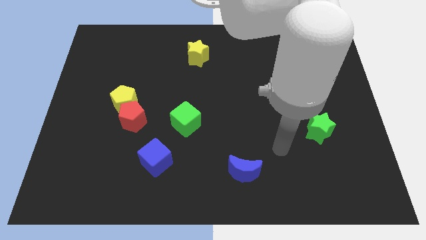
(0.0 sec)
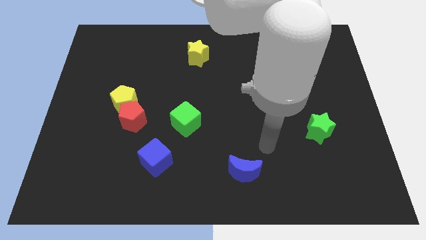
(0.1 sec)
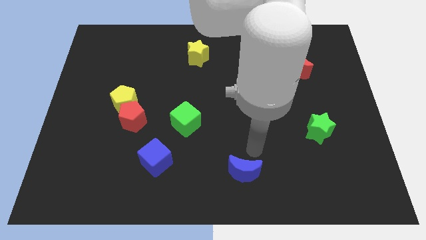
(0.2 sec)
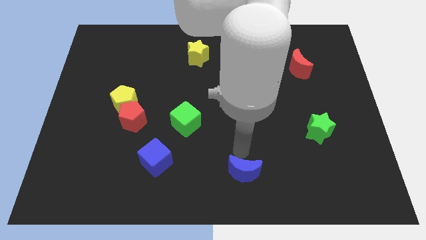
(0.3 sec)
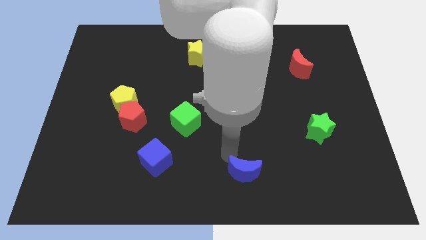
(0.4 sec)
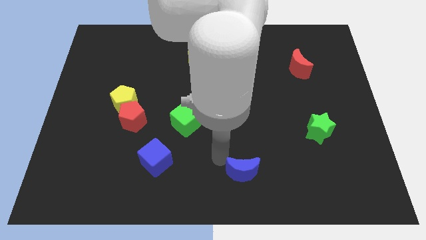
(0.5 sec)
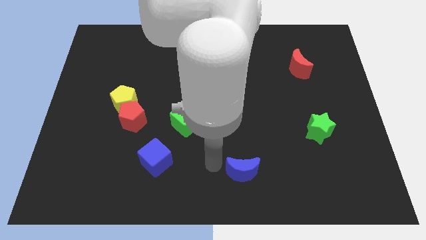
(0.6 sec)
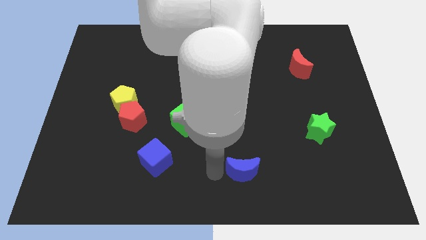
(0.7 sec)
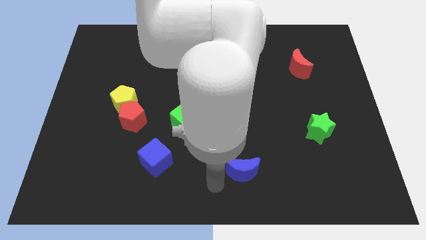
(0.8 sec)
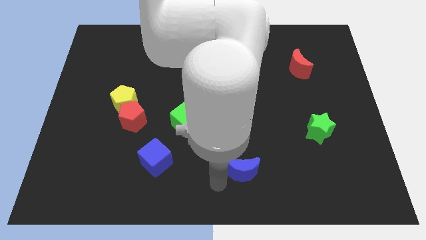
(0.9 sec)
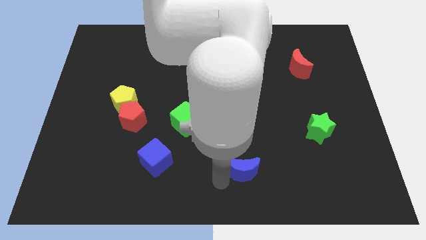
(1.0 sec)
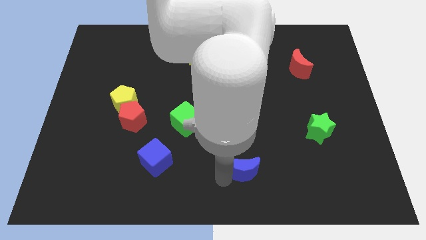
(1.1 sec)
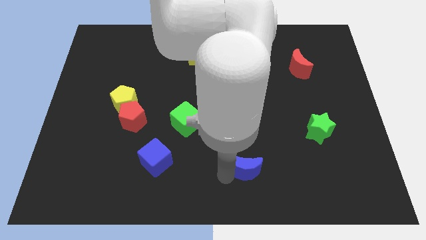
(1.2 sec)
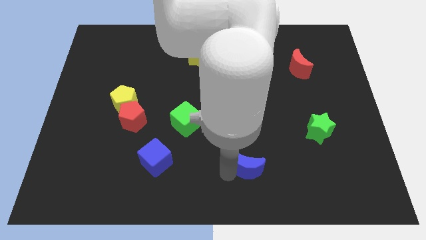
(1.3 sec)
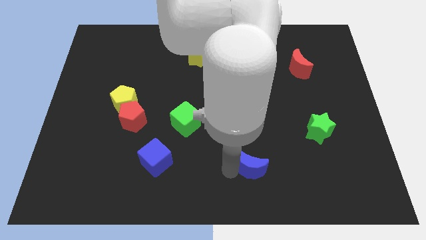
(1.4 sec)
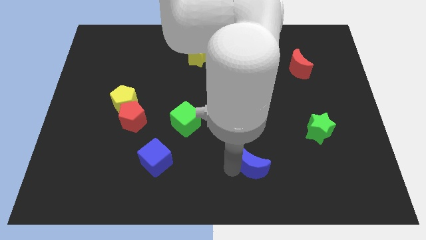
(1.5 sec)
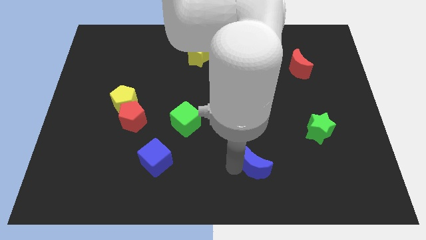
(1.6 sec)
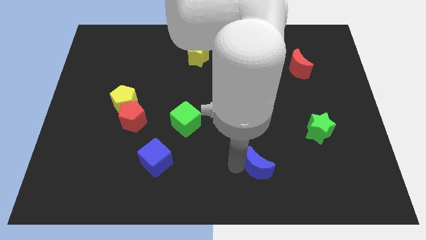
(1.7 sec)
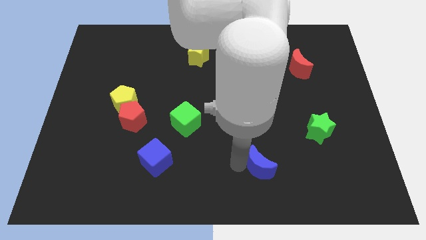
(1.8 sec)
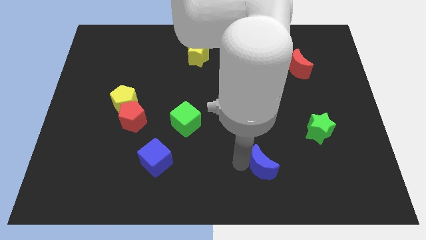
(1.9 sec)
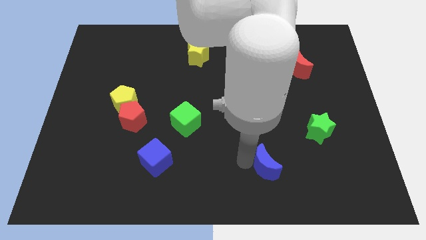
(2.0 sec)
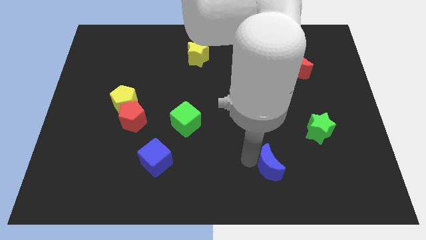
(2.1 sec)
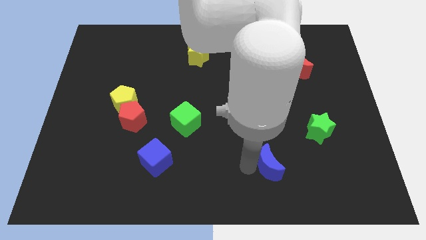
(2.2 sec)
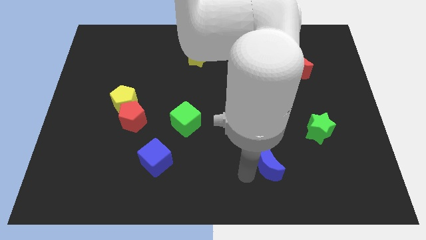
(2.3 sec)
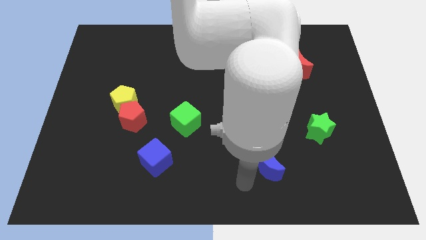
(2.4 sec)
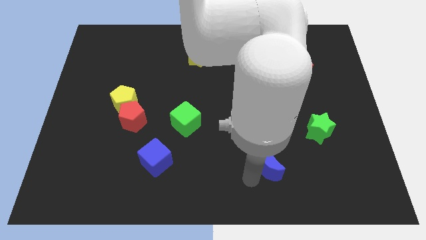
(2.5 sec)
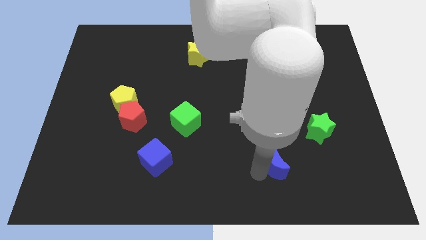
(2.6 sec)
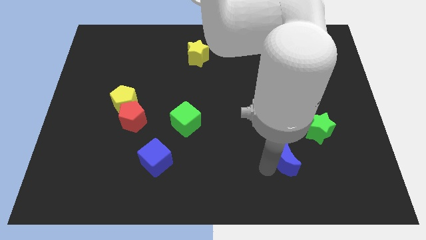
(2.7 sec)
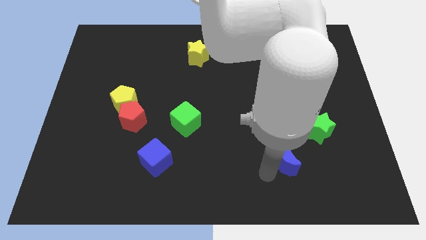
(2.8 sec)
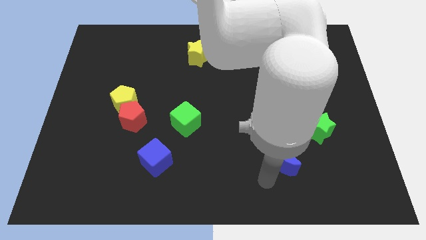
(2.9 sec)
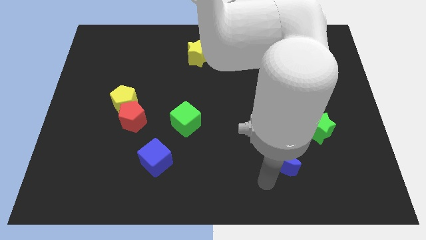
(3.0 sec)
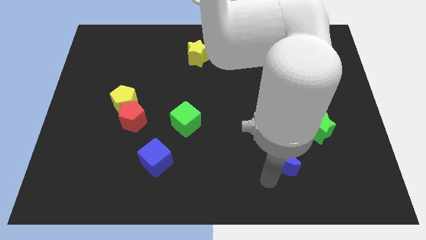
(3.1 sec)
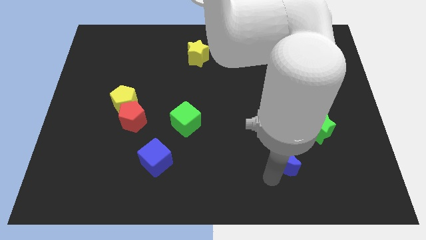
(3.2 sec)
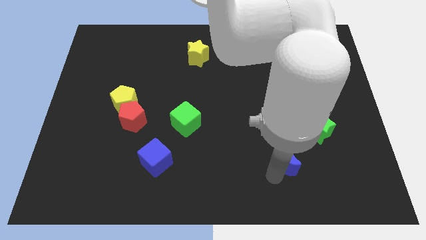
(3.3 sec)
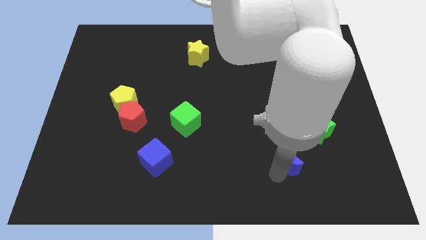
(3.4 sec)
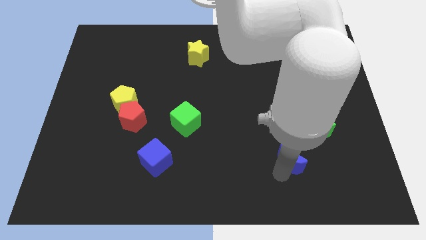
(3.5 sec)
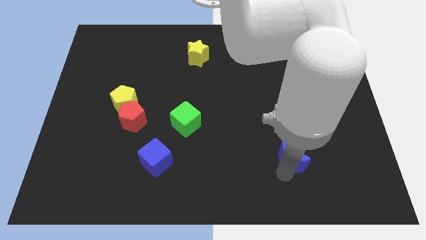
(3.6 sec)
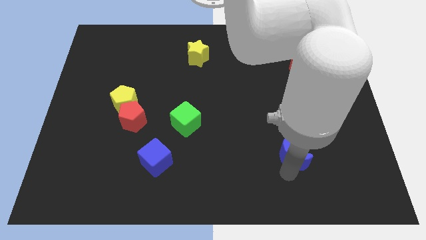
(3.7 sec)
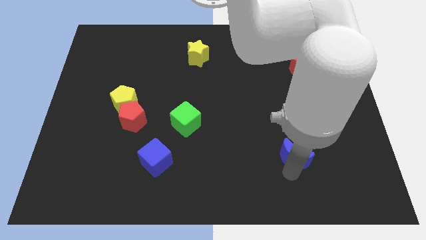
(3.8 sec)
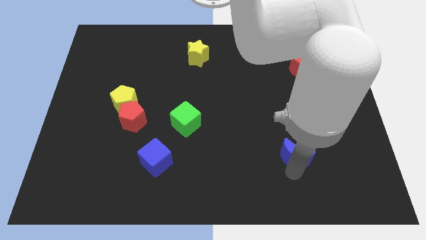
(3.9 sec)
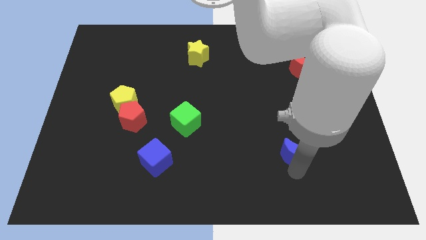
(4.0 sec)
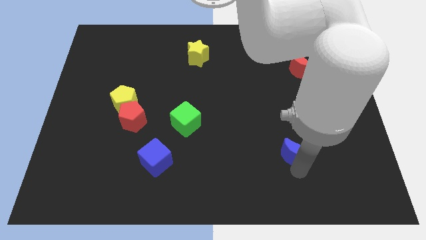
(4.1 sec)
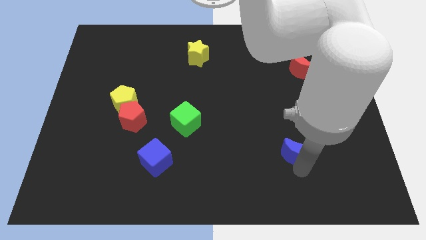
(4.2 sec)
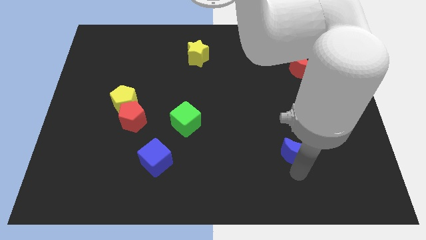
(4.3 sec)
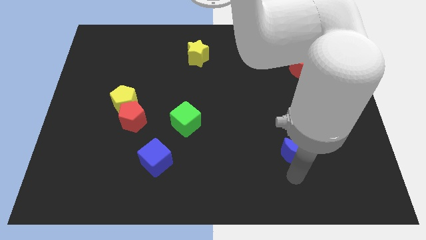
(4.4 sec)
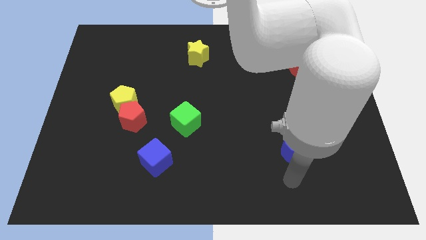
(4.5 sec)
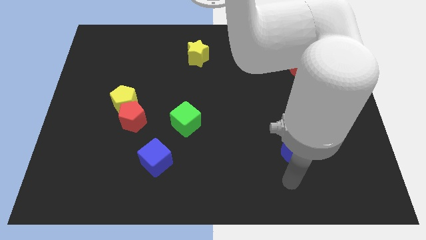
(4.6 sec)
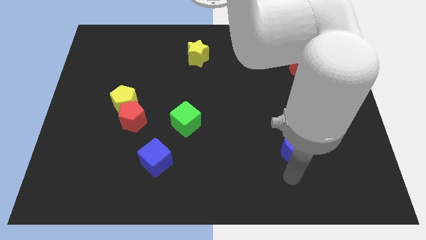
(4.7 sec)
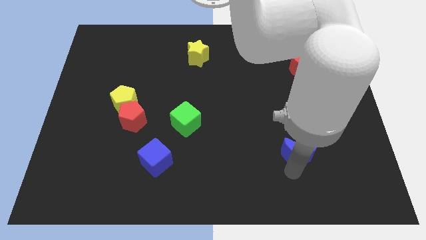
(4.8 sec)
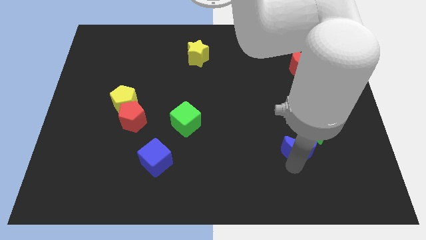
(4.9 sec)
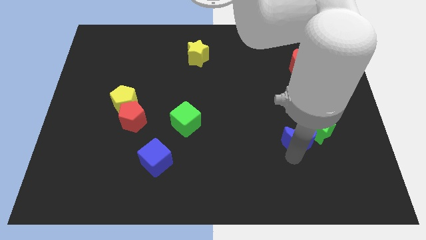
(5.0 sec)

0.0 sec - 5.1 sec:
put the blue moon next to the green star

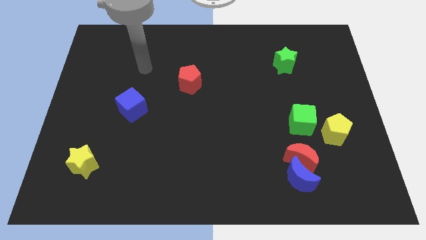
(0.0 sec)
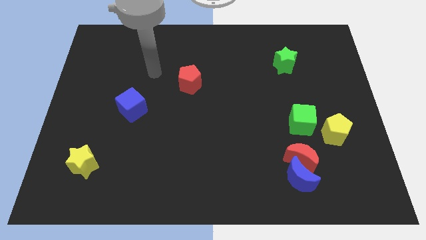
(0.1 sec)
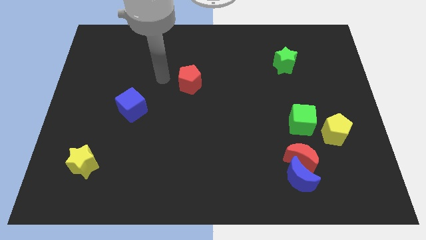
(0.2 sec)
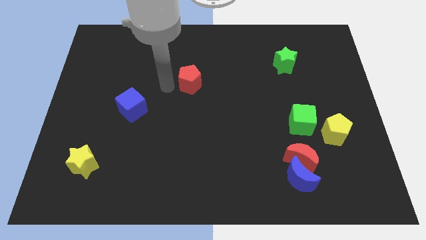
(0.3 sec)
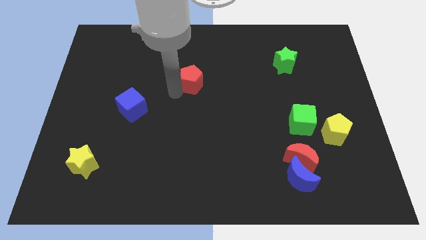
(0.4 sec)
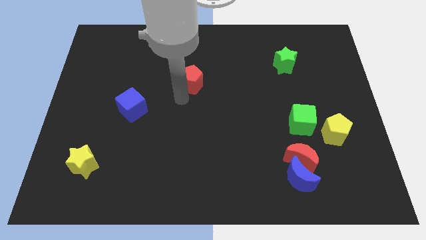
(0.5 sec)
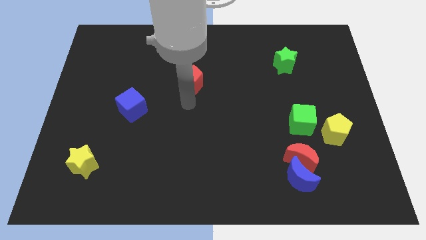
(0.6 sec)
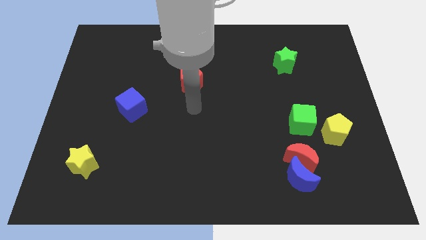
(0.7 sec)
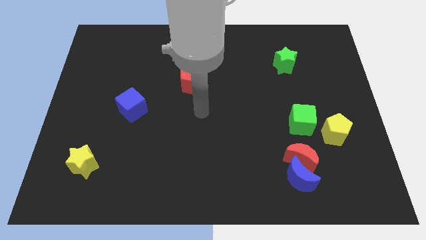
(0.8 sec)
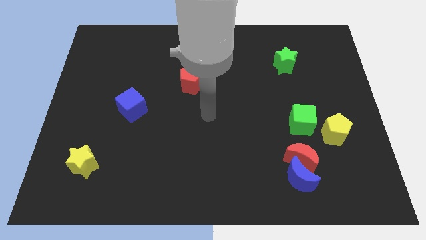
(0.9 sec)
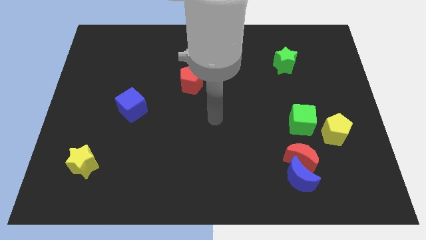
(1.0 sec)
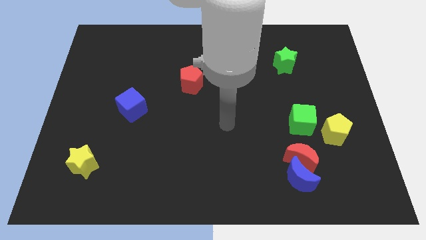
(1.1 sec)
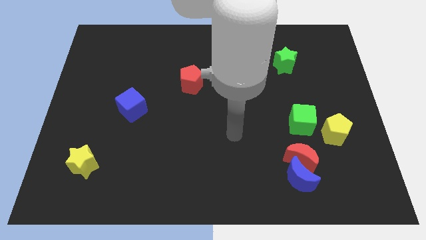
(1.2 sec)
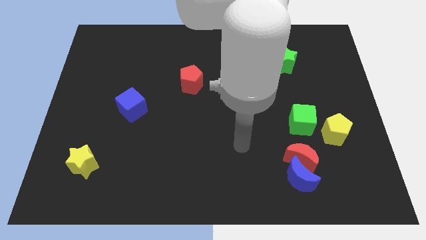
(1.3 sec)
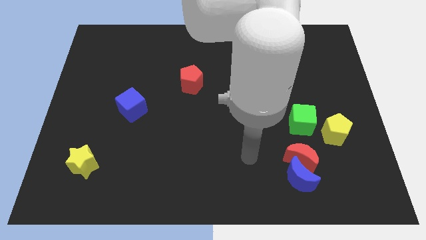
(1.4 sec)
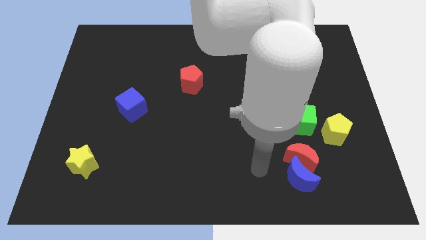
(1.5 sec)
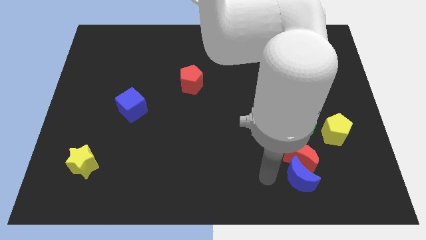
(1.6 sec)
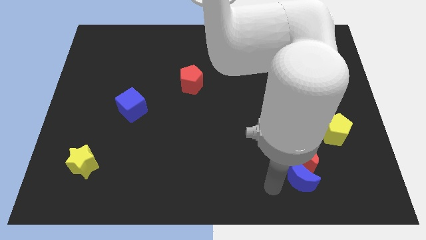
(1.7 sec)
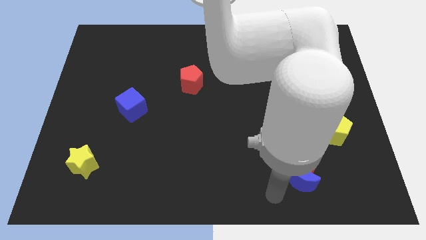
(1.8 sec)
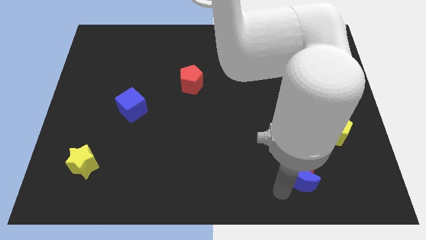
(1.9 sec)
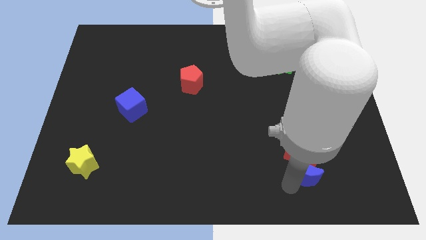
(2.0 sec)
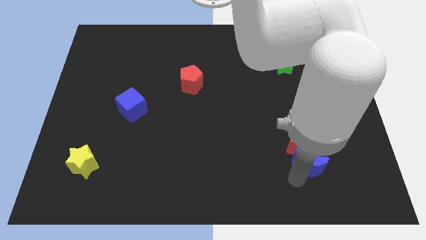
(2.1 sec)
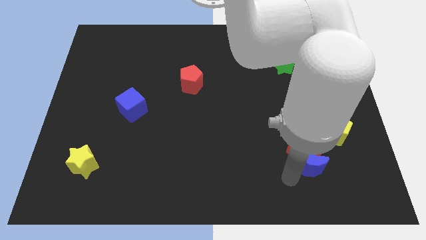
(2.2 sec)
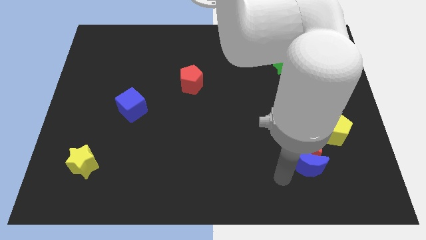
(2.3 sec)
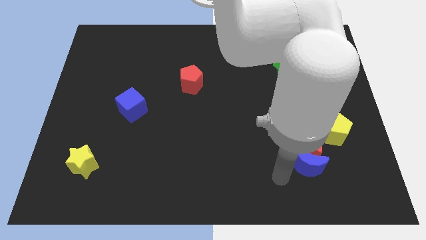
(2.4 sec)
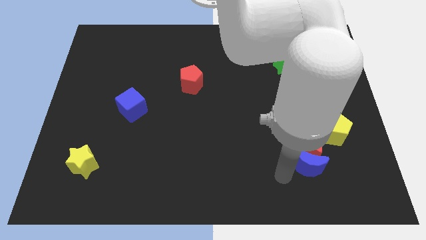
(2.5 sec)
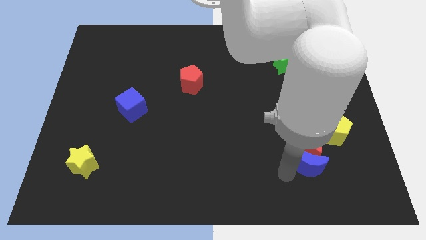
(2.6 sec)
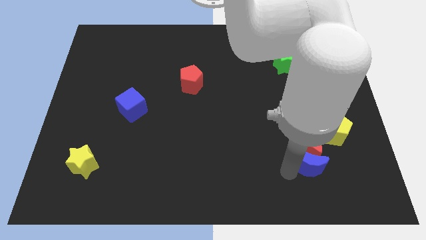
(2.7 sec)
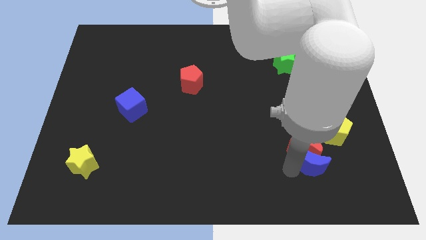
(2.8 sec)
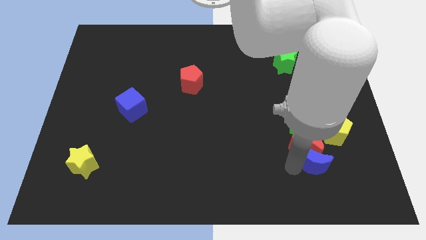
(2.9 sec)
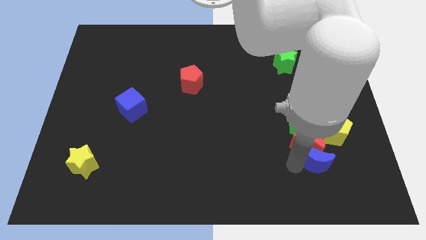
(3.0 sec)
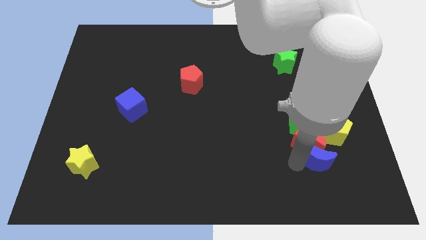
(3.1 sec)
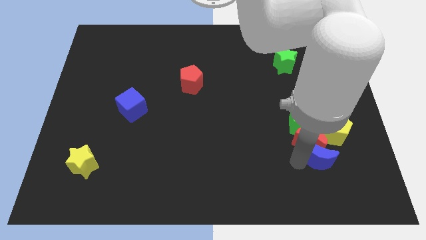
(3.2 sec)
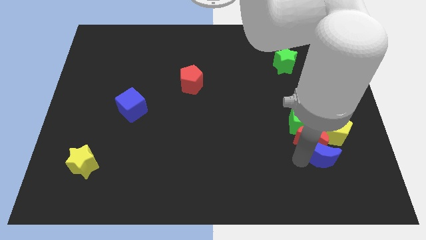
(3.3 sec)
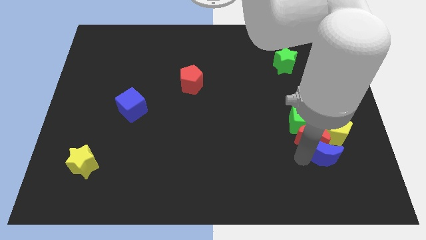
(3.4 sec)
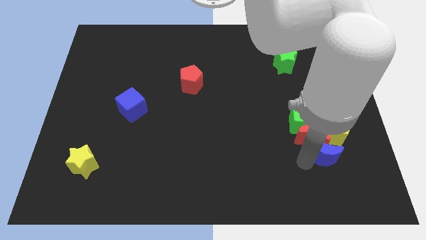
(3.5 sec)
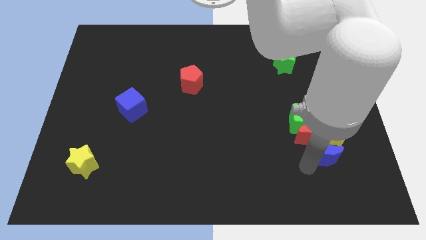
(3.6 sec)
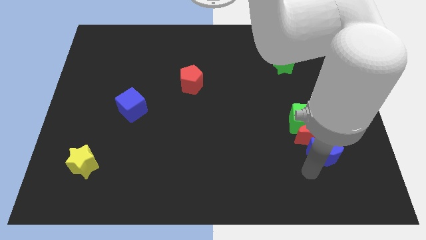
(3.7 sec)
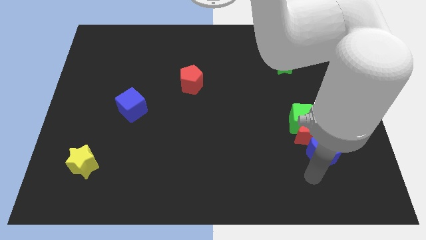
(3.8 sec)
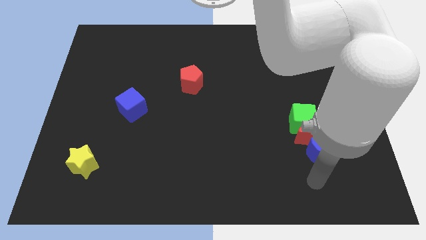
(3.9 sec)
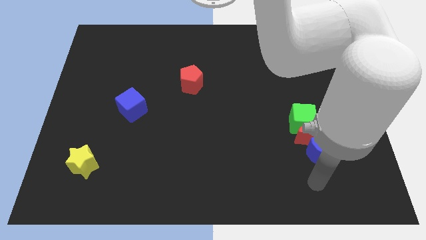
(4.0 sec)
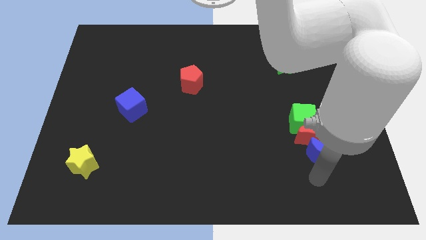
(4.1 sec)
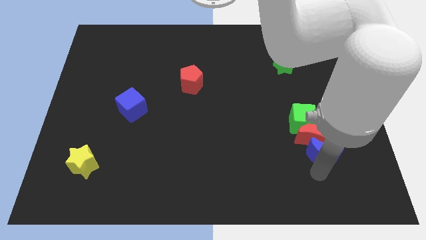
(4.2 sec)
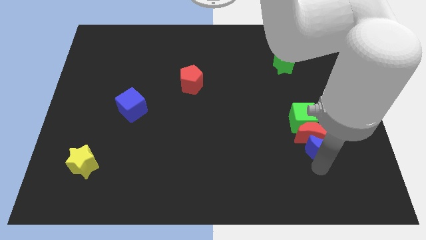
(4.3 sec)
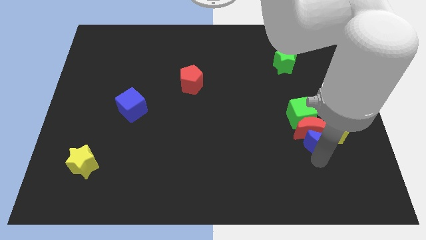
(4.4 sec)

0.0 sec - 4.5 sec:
put the blue moon to the yellow pentagon
